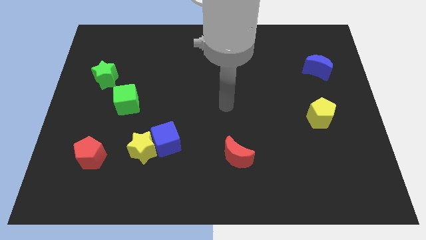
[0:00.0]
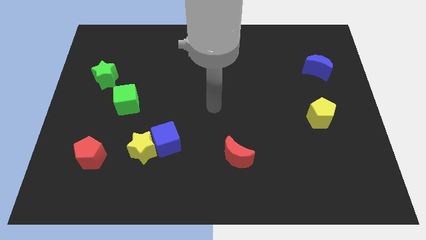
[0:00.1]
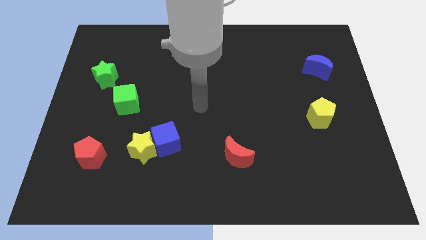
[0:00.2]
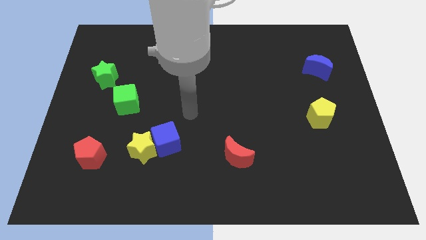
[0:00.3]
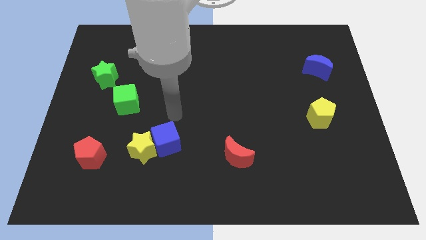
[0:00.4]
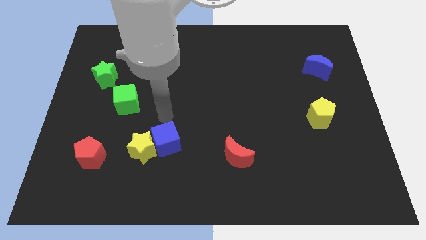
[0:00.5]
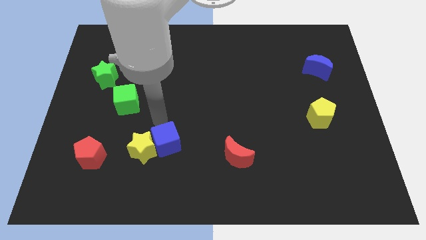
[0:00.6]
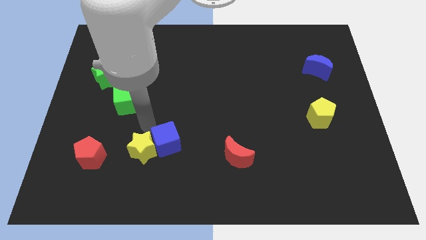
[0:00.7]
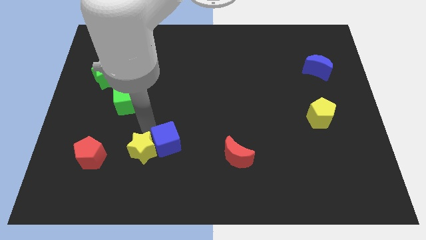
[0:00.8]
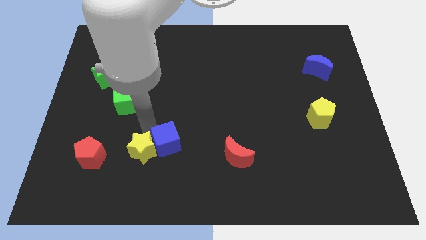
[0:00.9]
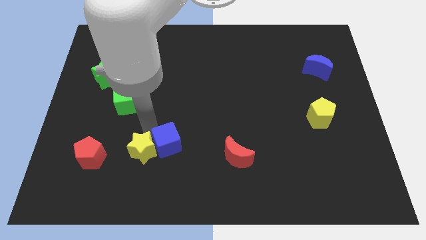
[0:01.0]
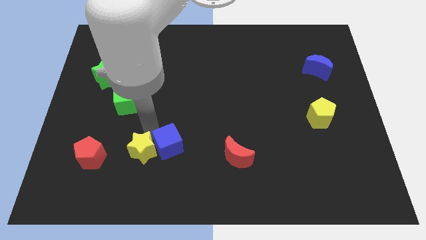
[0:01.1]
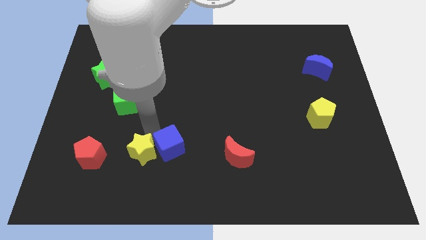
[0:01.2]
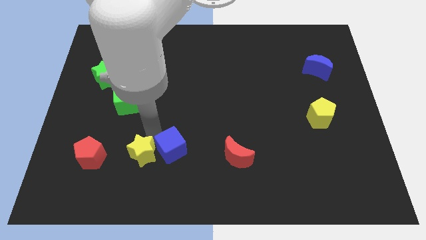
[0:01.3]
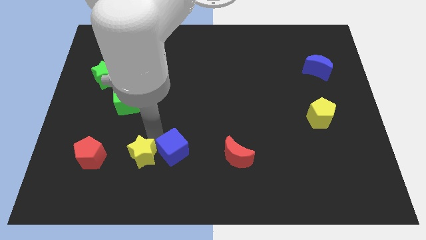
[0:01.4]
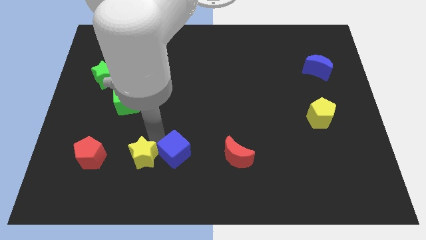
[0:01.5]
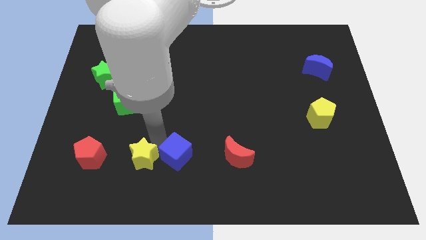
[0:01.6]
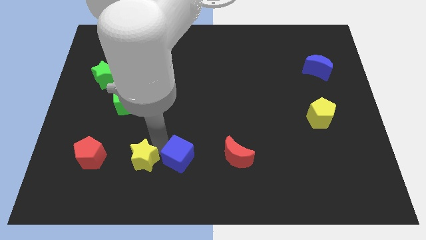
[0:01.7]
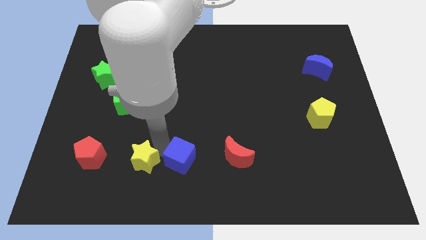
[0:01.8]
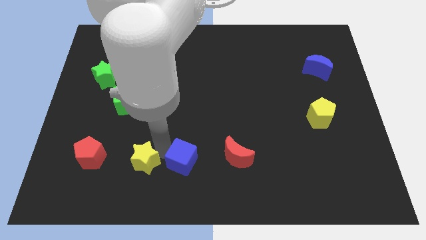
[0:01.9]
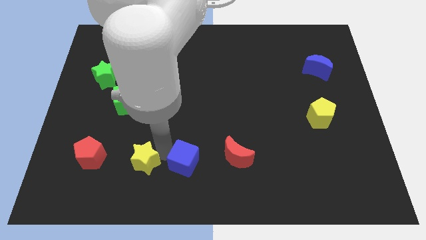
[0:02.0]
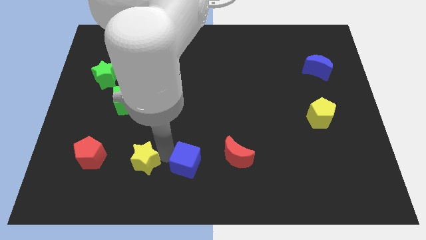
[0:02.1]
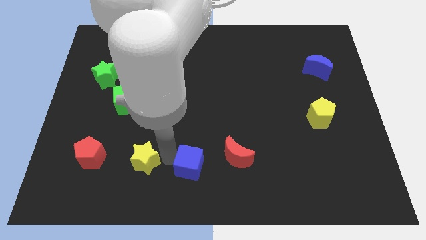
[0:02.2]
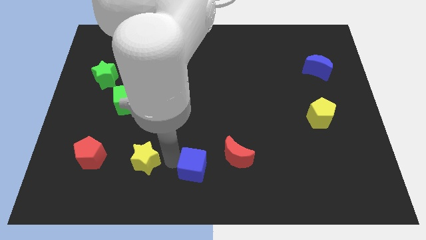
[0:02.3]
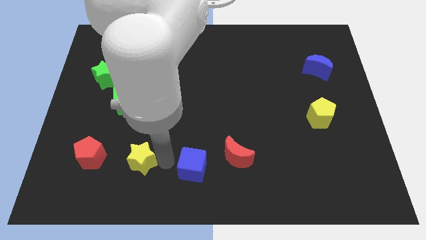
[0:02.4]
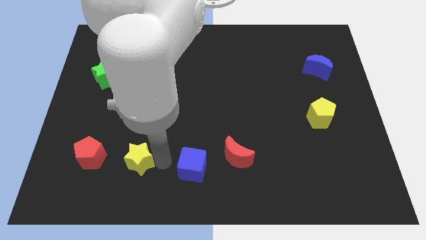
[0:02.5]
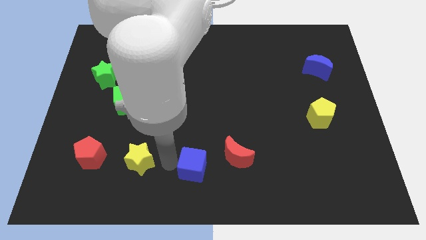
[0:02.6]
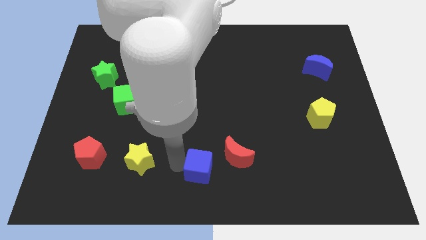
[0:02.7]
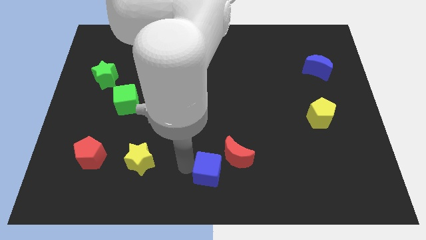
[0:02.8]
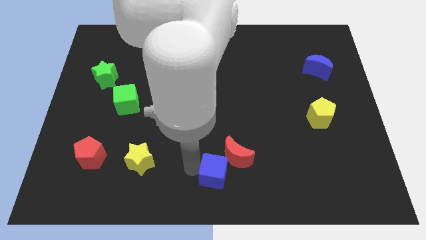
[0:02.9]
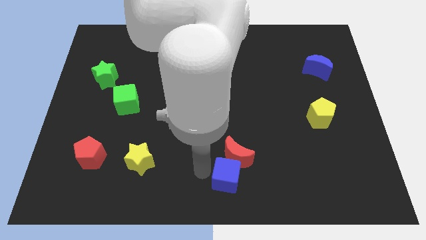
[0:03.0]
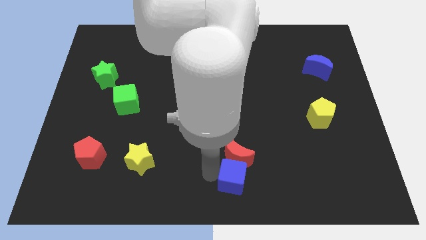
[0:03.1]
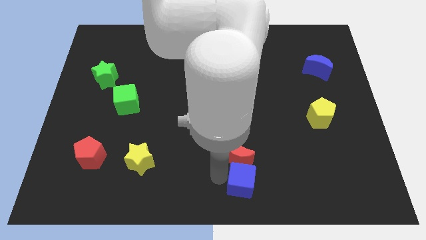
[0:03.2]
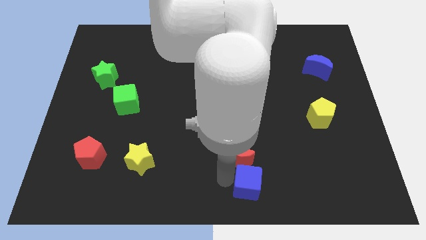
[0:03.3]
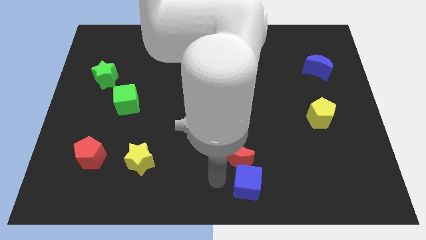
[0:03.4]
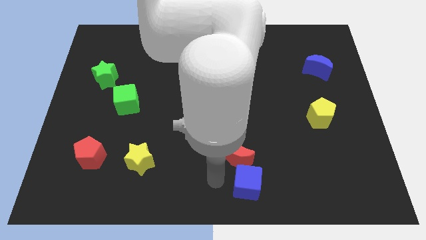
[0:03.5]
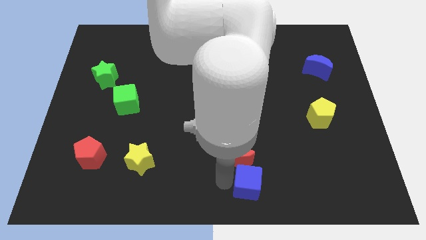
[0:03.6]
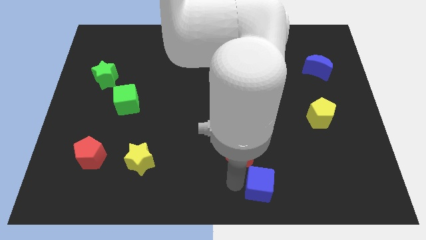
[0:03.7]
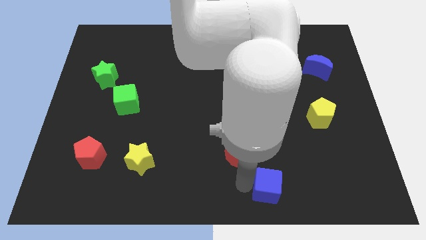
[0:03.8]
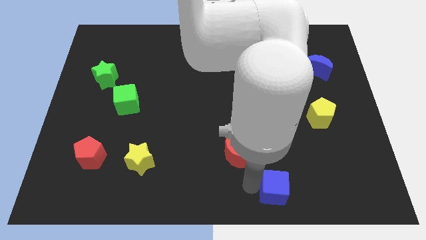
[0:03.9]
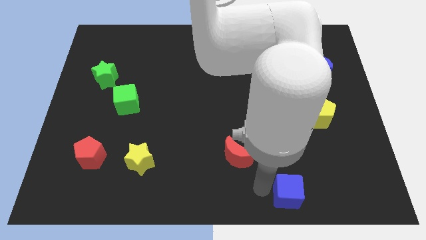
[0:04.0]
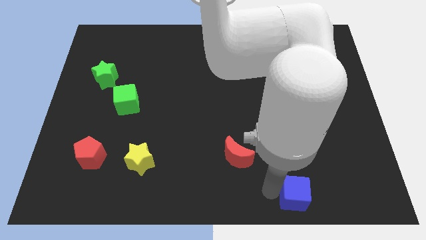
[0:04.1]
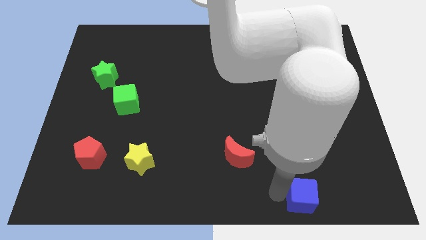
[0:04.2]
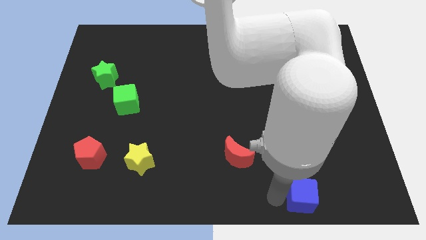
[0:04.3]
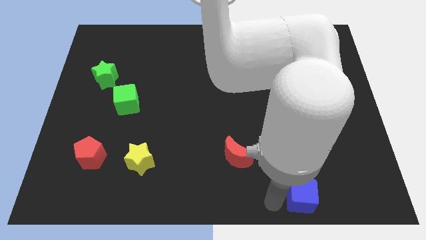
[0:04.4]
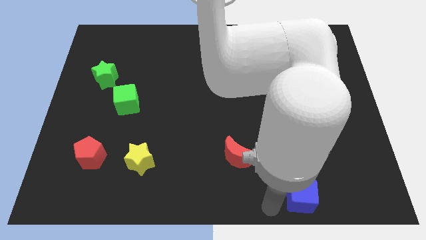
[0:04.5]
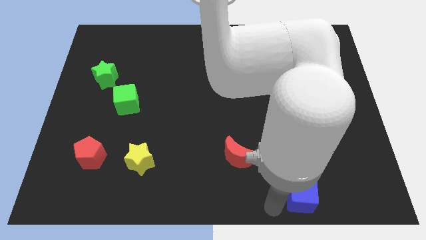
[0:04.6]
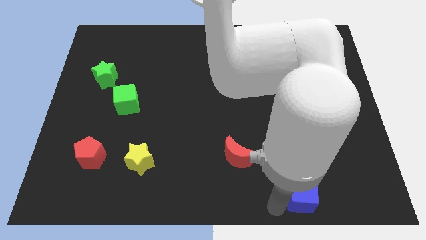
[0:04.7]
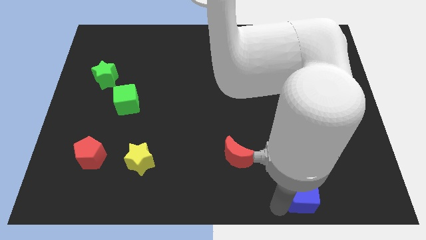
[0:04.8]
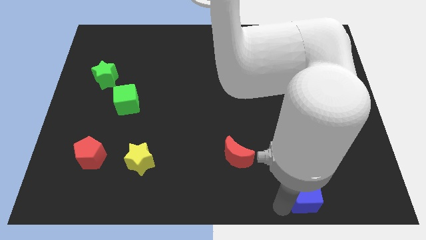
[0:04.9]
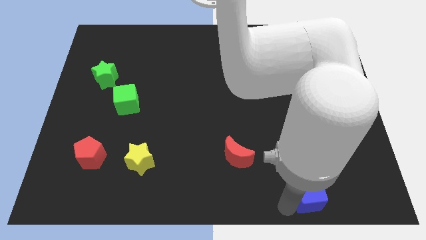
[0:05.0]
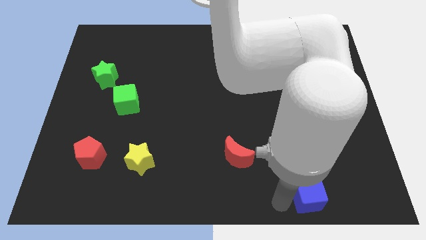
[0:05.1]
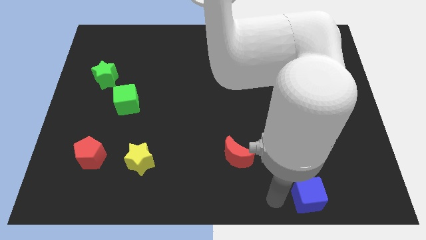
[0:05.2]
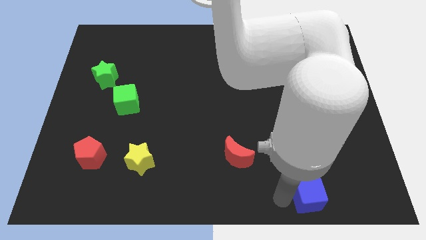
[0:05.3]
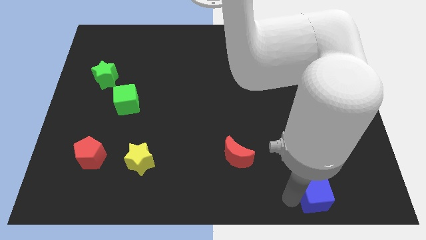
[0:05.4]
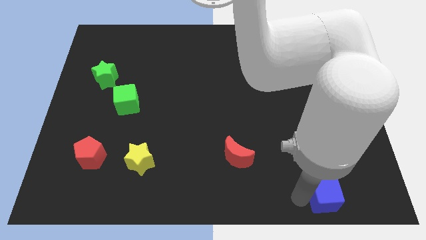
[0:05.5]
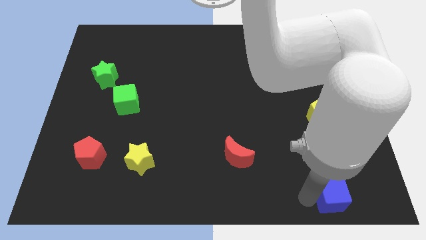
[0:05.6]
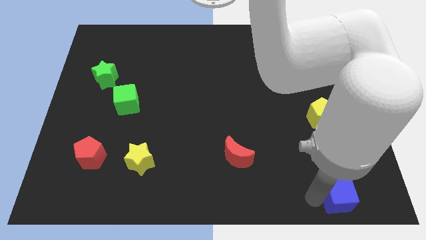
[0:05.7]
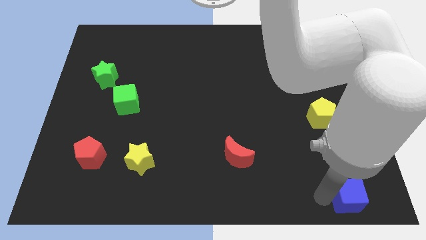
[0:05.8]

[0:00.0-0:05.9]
push the blue cube to the bottom right of the board
